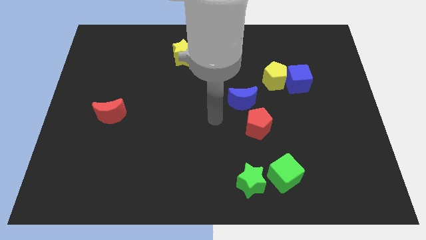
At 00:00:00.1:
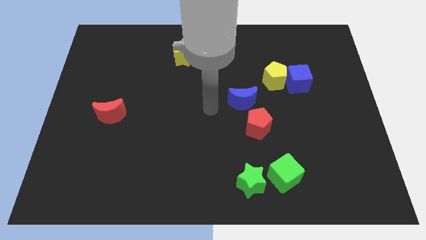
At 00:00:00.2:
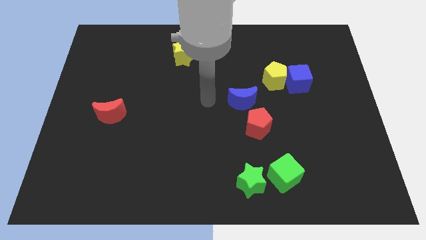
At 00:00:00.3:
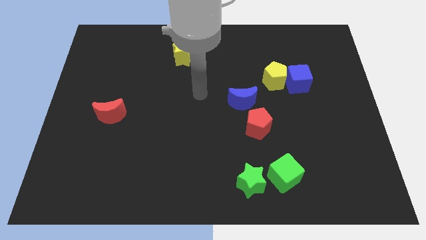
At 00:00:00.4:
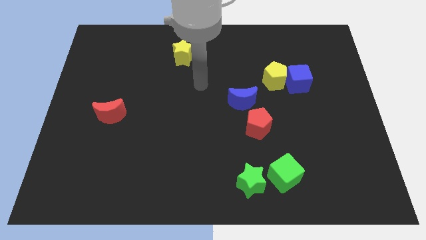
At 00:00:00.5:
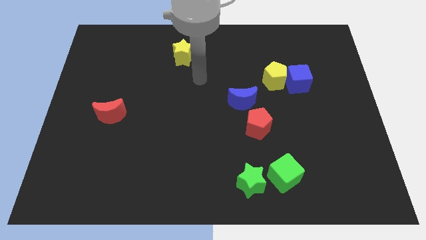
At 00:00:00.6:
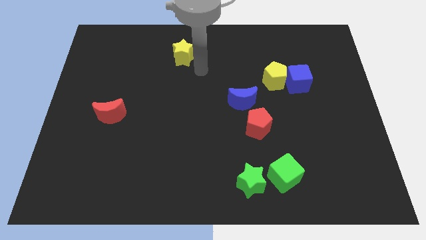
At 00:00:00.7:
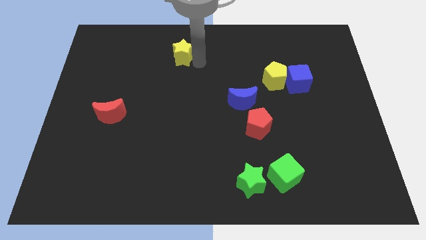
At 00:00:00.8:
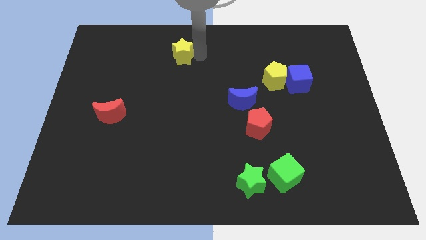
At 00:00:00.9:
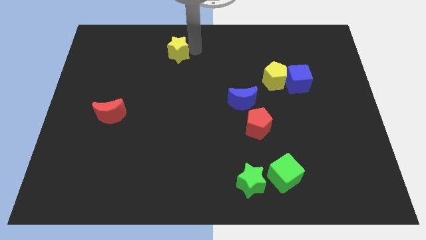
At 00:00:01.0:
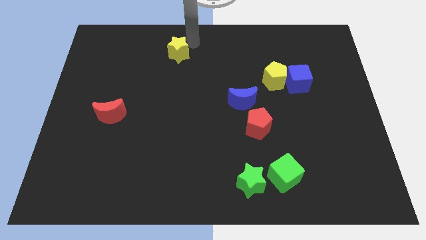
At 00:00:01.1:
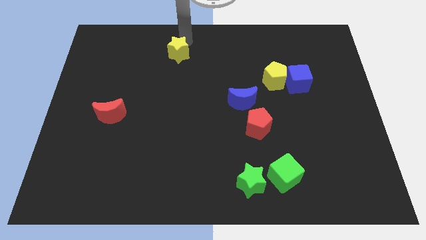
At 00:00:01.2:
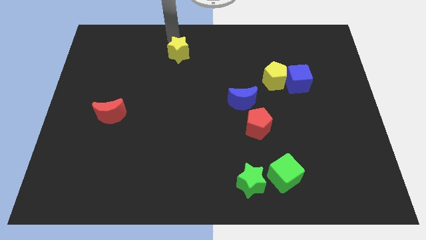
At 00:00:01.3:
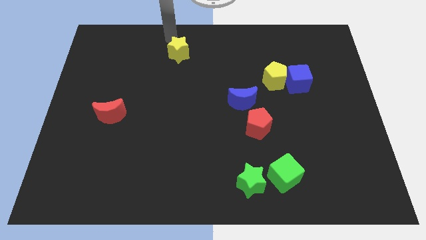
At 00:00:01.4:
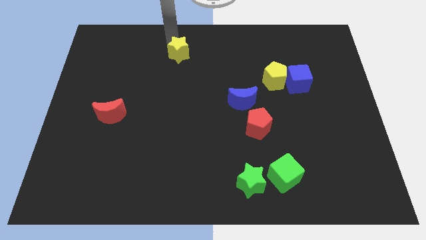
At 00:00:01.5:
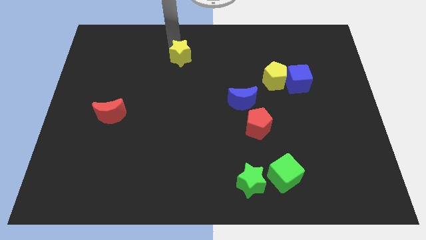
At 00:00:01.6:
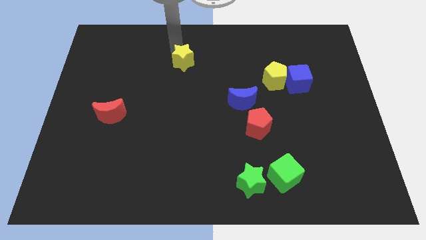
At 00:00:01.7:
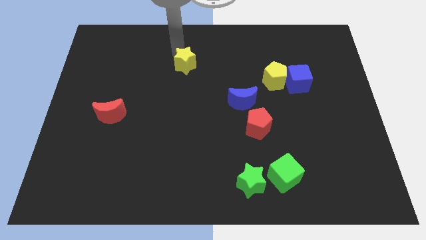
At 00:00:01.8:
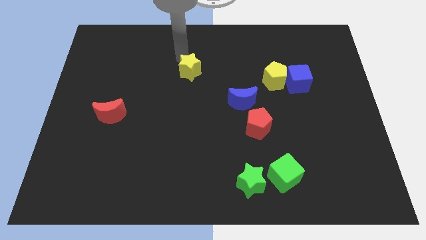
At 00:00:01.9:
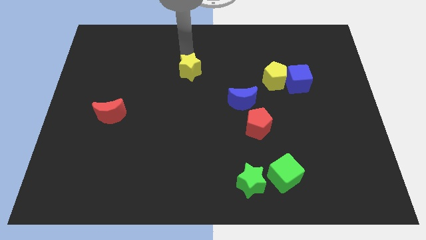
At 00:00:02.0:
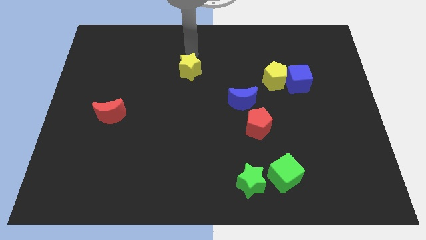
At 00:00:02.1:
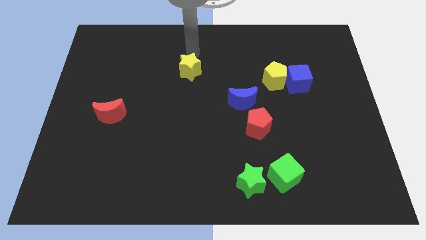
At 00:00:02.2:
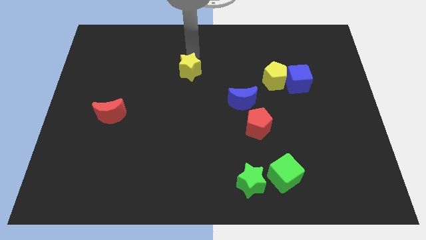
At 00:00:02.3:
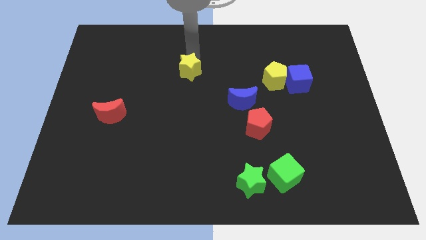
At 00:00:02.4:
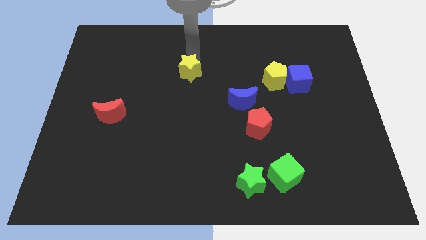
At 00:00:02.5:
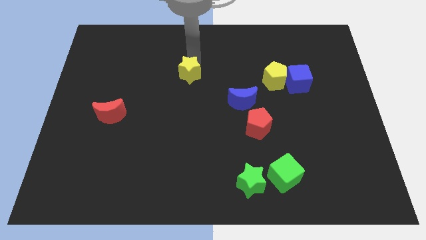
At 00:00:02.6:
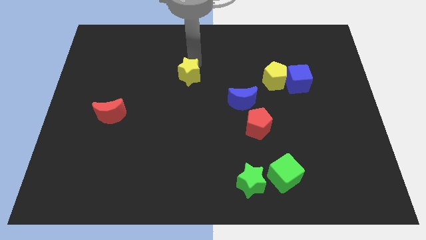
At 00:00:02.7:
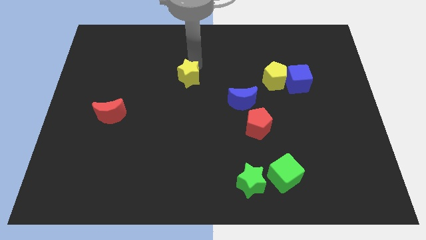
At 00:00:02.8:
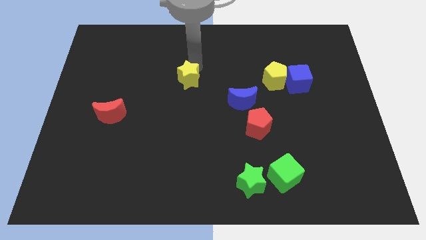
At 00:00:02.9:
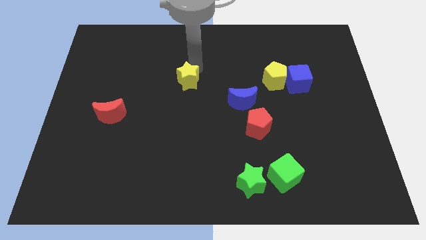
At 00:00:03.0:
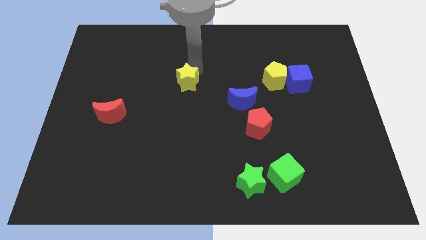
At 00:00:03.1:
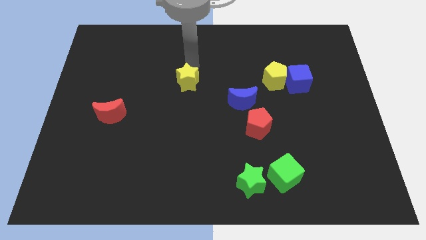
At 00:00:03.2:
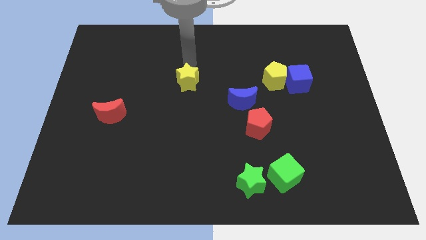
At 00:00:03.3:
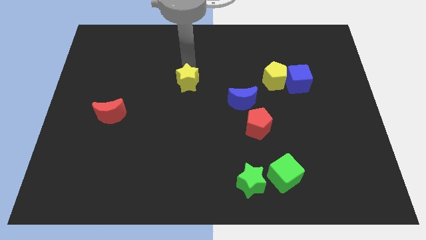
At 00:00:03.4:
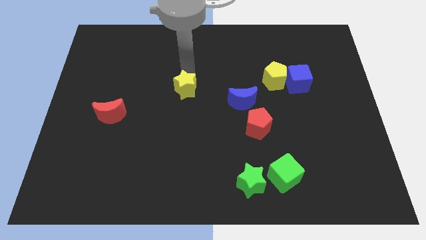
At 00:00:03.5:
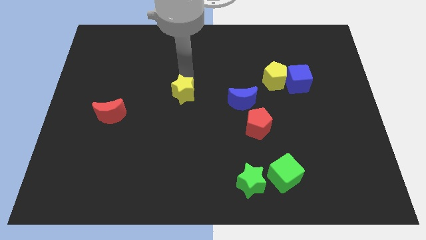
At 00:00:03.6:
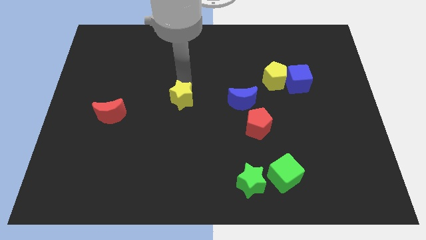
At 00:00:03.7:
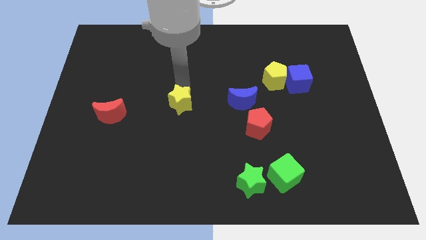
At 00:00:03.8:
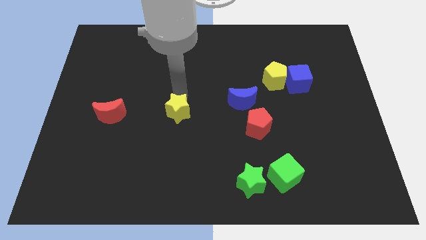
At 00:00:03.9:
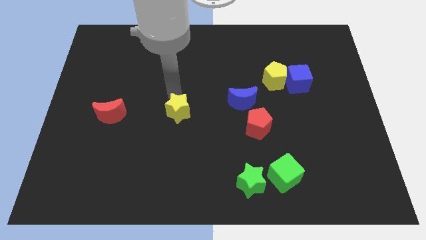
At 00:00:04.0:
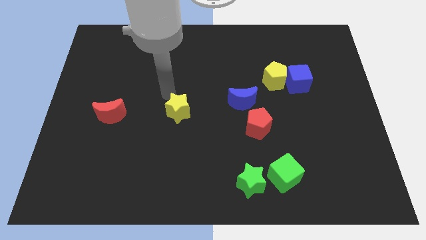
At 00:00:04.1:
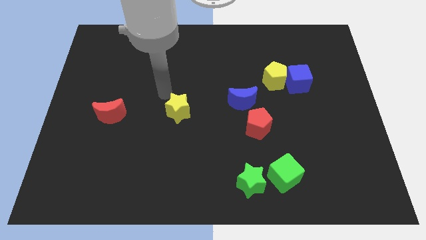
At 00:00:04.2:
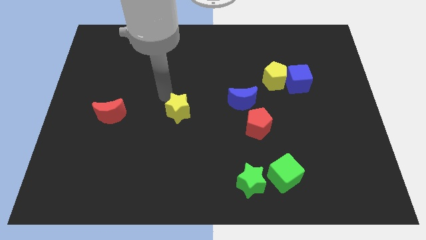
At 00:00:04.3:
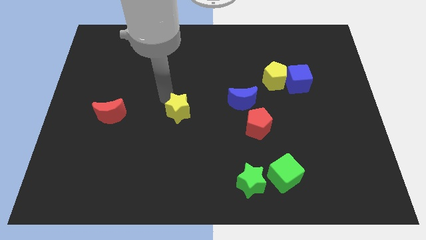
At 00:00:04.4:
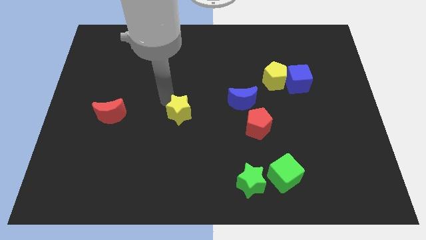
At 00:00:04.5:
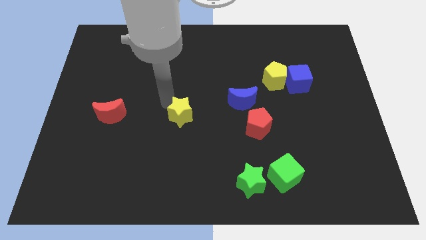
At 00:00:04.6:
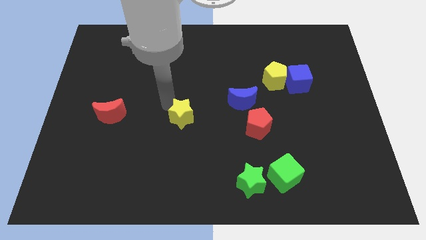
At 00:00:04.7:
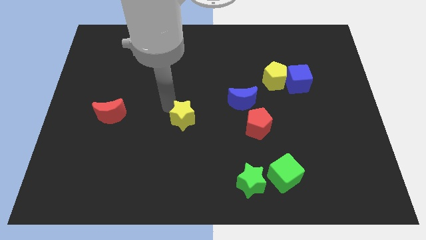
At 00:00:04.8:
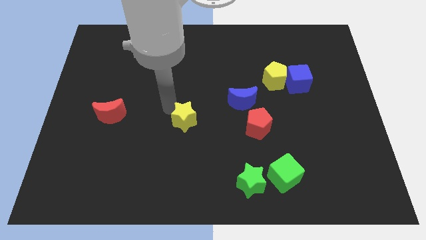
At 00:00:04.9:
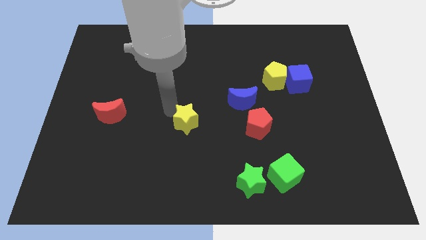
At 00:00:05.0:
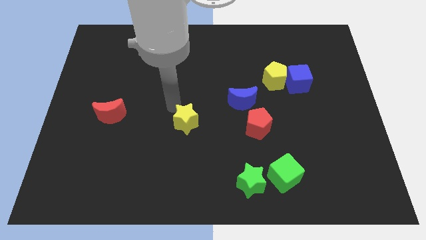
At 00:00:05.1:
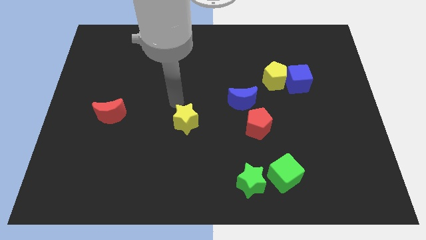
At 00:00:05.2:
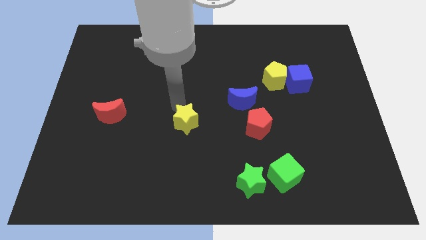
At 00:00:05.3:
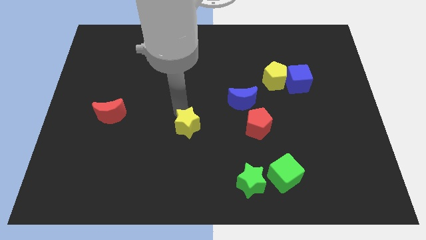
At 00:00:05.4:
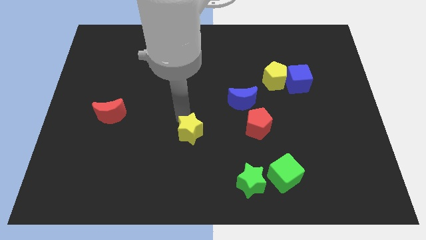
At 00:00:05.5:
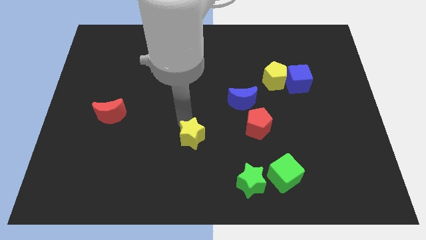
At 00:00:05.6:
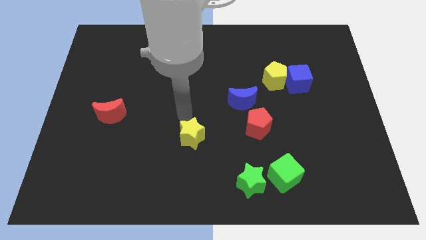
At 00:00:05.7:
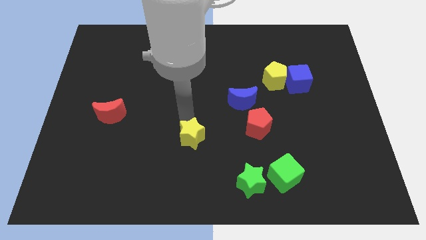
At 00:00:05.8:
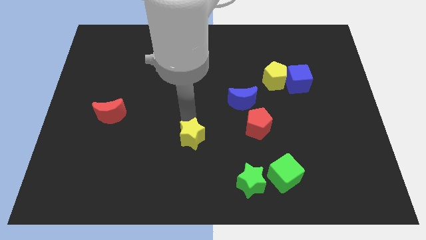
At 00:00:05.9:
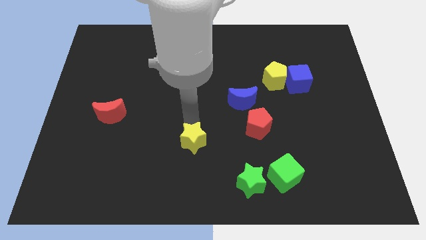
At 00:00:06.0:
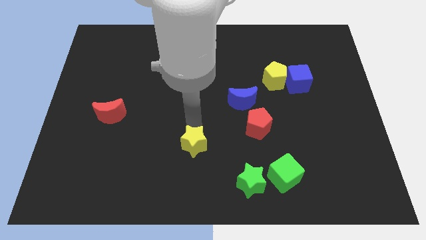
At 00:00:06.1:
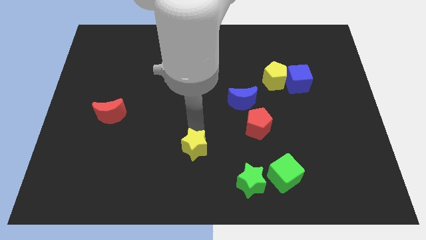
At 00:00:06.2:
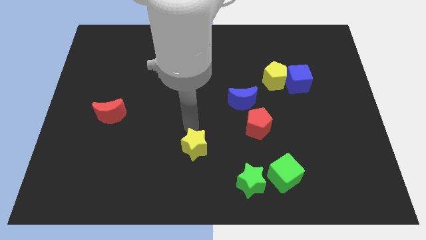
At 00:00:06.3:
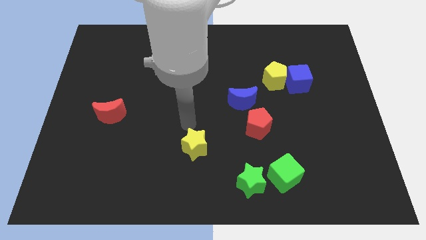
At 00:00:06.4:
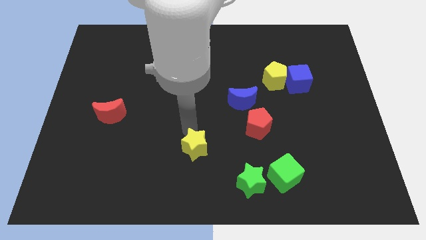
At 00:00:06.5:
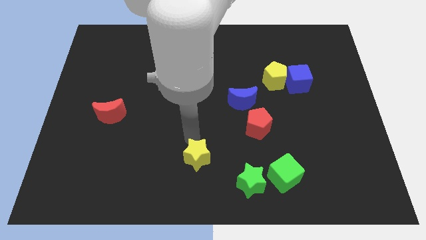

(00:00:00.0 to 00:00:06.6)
put the yellow star to the bottom
